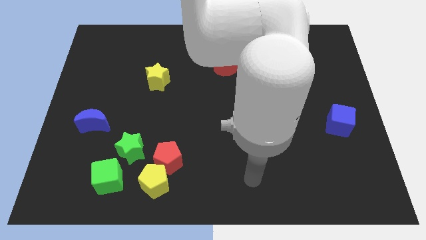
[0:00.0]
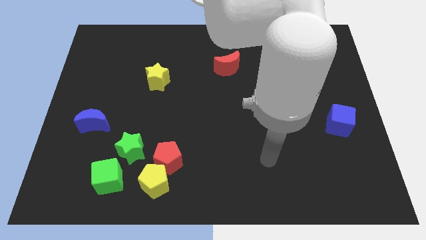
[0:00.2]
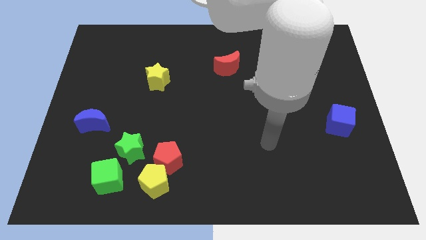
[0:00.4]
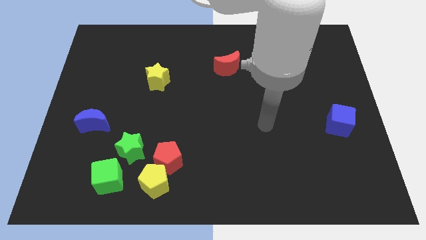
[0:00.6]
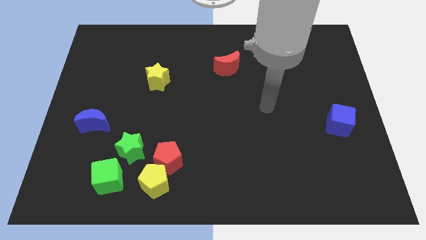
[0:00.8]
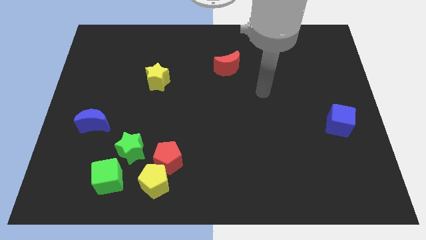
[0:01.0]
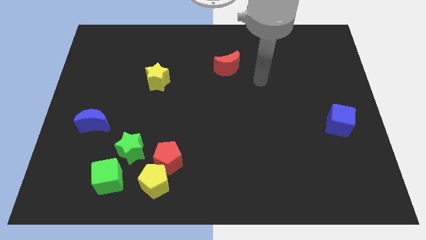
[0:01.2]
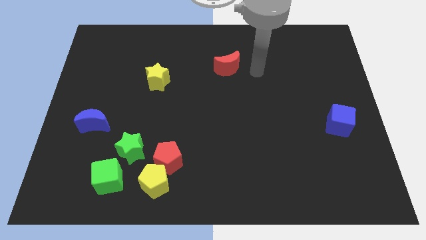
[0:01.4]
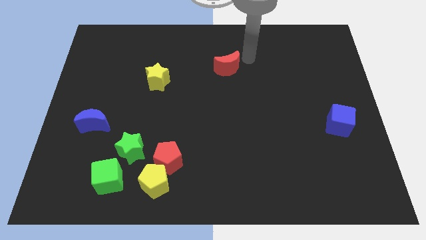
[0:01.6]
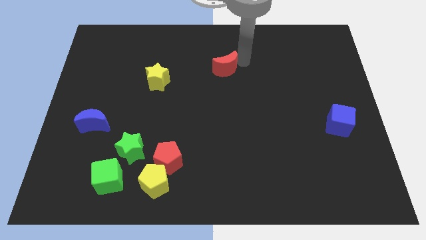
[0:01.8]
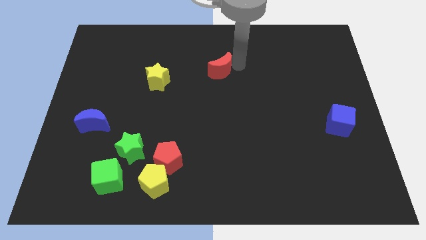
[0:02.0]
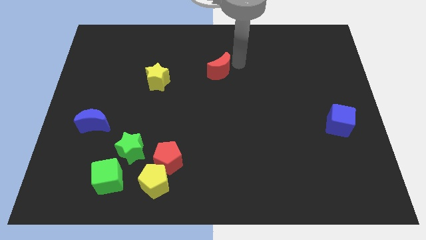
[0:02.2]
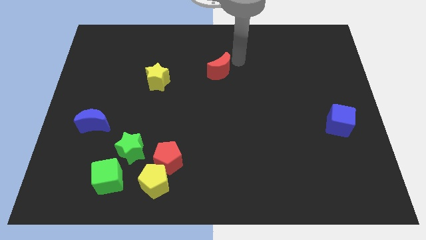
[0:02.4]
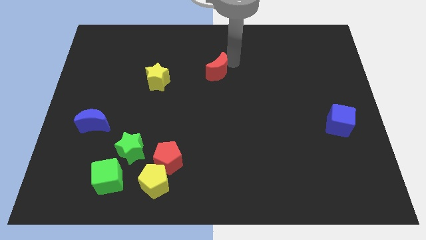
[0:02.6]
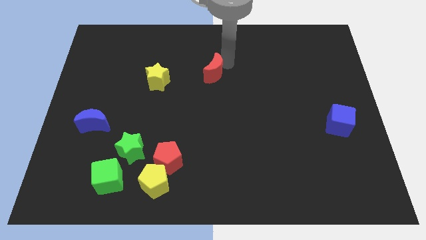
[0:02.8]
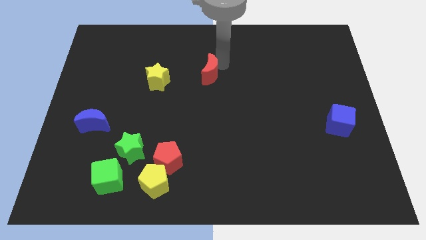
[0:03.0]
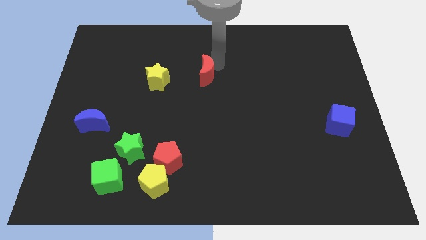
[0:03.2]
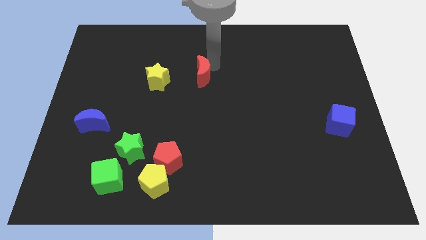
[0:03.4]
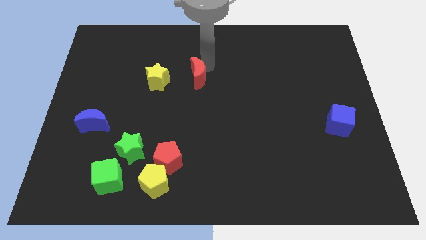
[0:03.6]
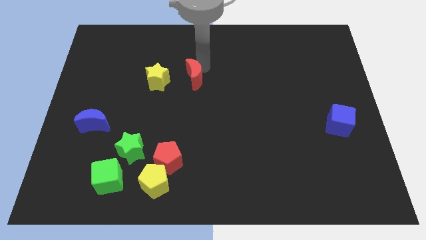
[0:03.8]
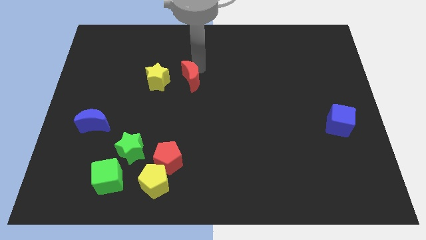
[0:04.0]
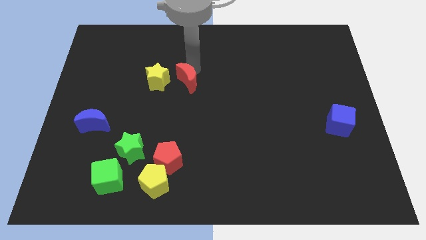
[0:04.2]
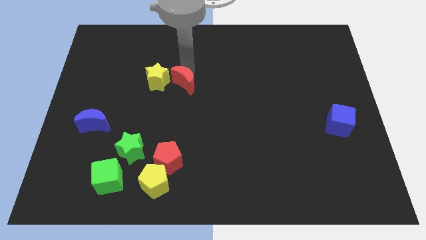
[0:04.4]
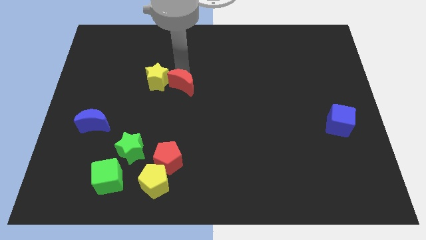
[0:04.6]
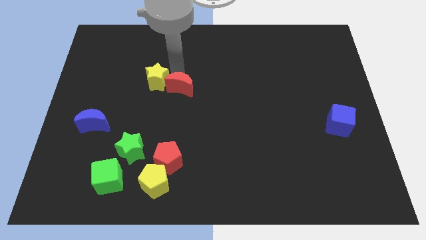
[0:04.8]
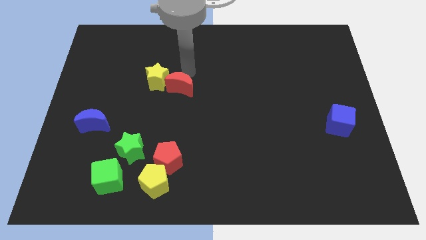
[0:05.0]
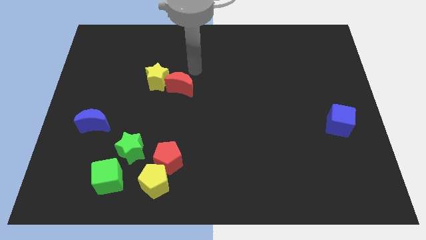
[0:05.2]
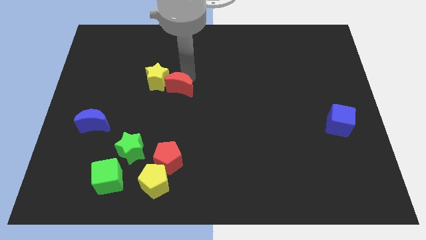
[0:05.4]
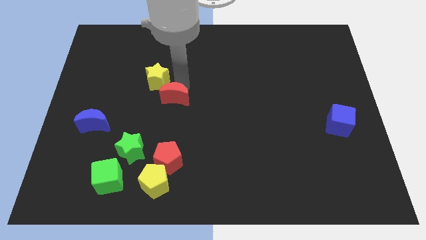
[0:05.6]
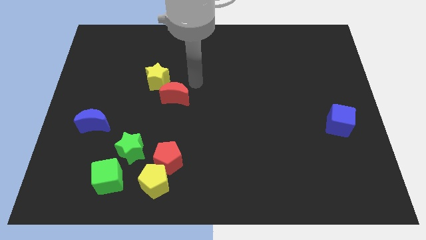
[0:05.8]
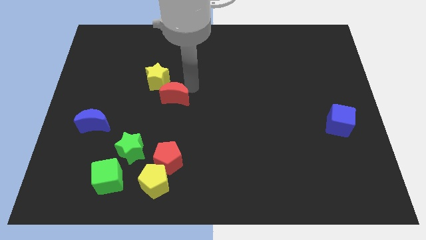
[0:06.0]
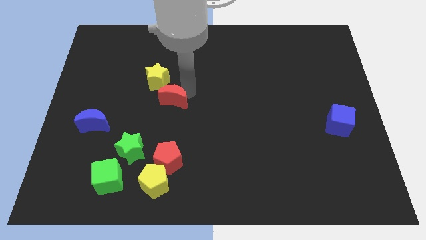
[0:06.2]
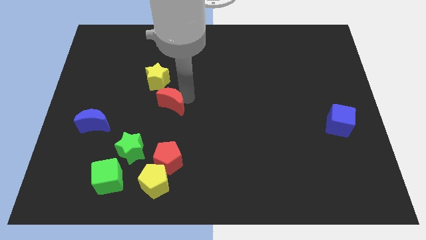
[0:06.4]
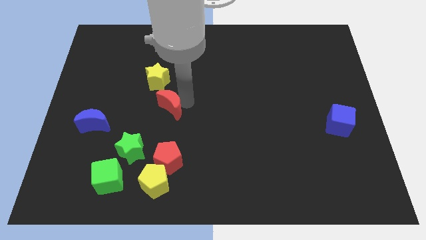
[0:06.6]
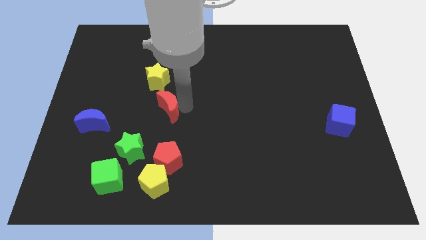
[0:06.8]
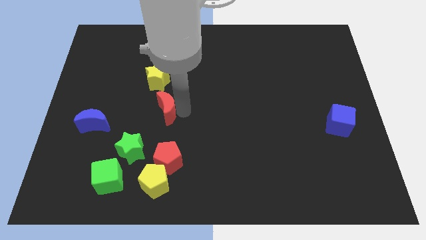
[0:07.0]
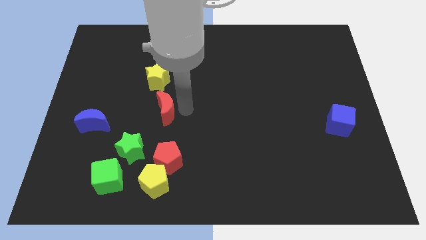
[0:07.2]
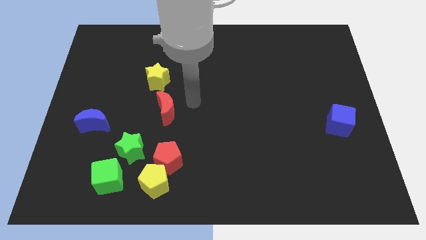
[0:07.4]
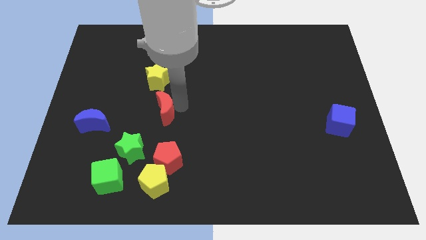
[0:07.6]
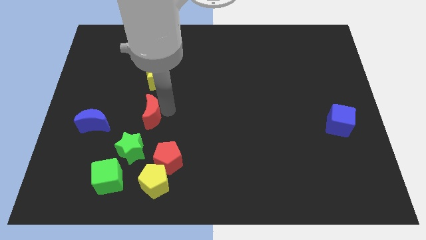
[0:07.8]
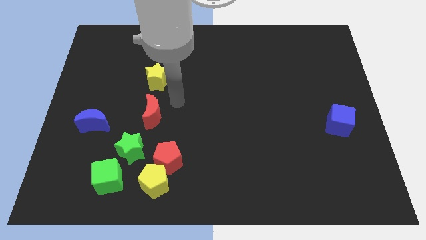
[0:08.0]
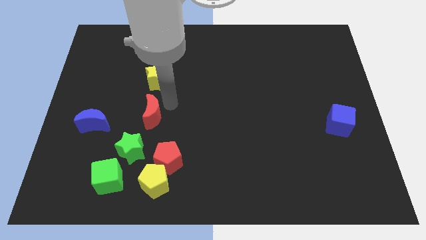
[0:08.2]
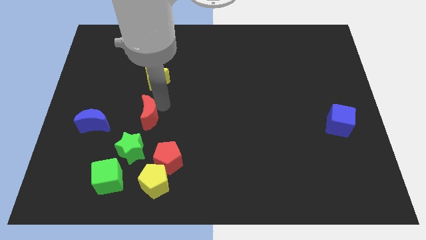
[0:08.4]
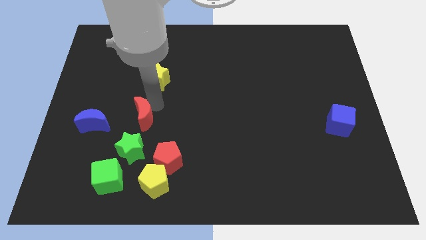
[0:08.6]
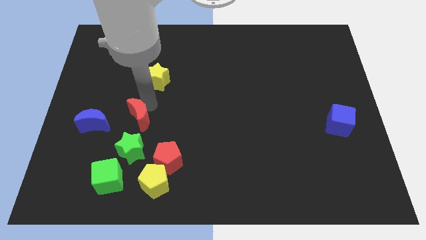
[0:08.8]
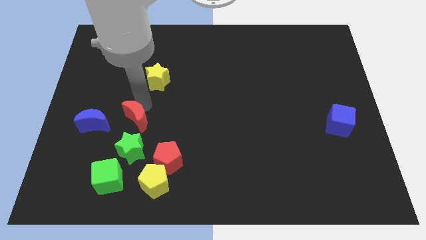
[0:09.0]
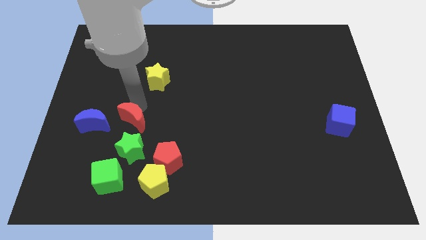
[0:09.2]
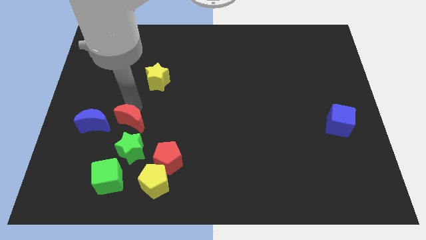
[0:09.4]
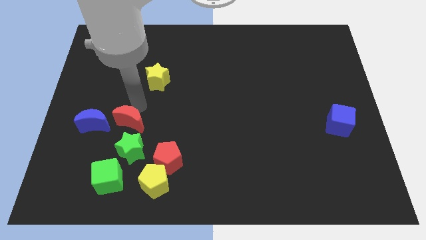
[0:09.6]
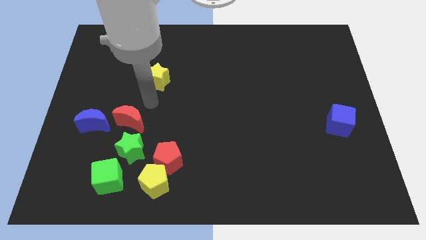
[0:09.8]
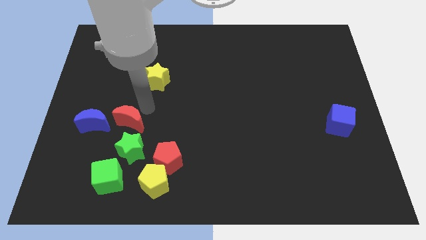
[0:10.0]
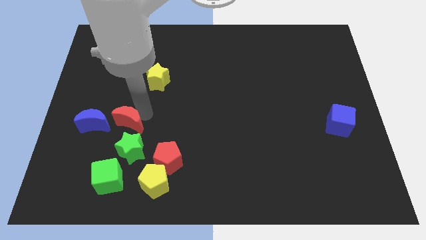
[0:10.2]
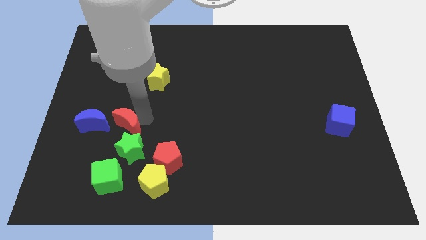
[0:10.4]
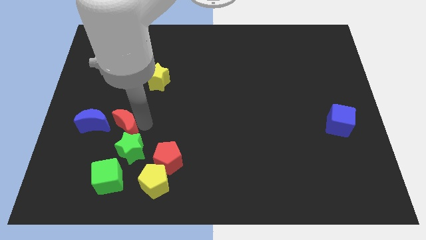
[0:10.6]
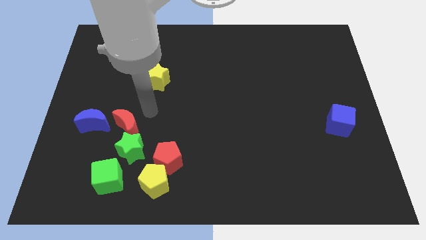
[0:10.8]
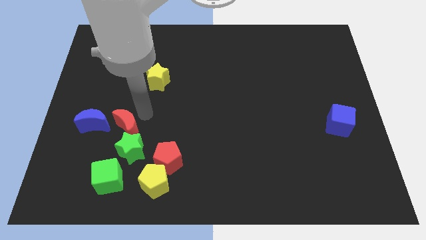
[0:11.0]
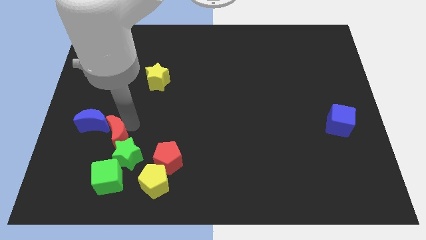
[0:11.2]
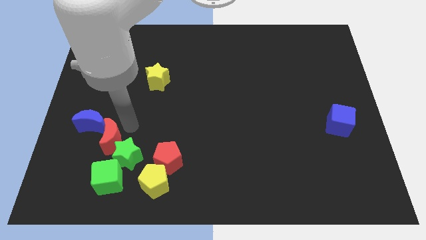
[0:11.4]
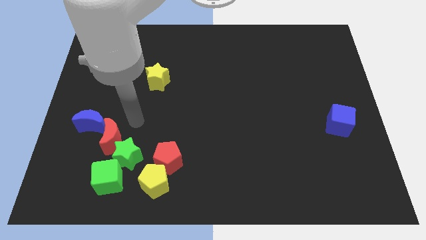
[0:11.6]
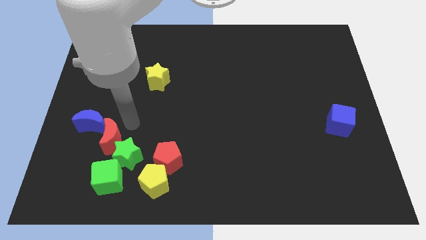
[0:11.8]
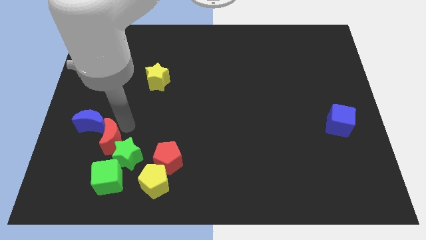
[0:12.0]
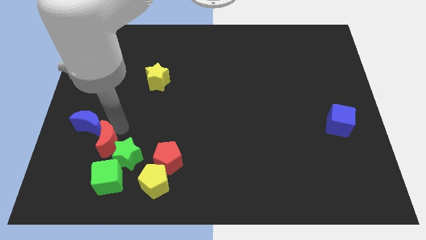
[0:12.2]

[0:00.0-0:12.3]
put the red moon below the blue moon

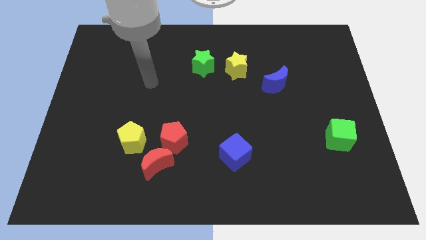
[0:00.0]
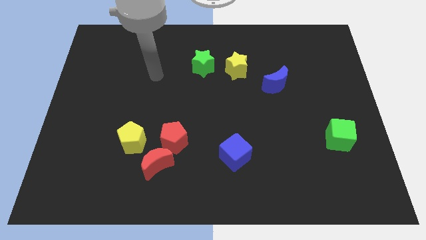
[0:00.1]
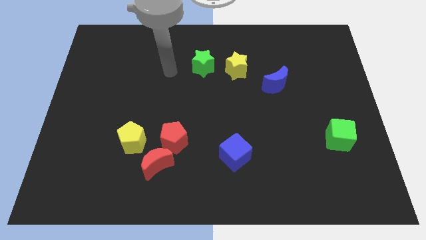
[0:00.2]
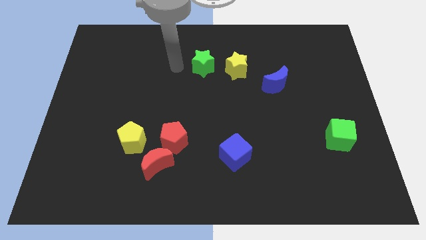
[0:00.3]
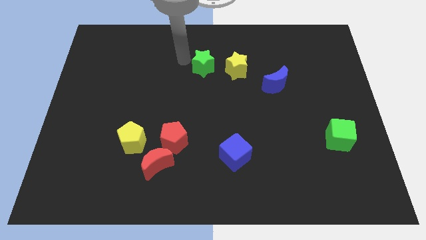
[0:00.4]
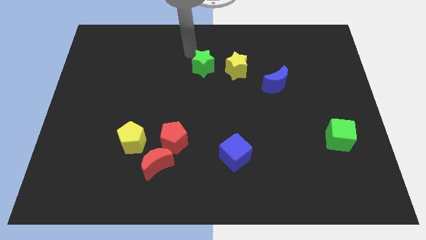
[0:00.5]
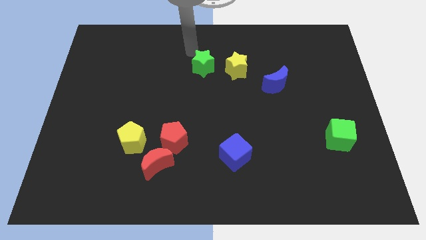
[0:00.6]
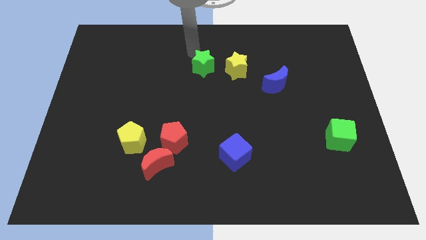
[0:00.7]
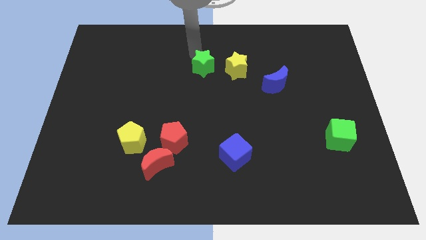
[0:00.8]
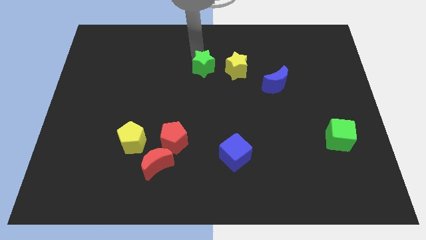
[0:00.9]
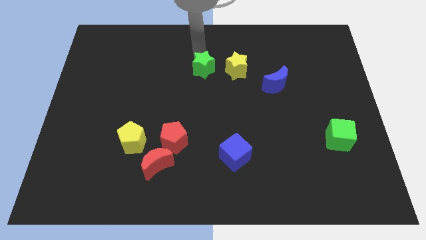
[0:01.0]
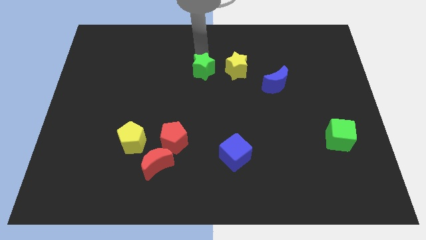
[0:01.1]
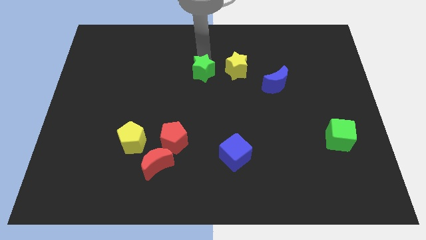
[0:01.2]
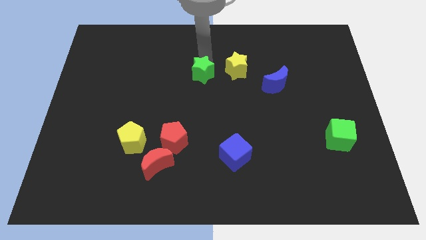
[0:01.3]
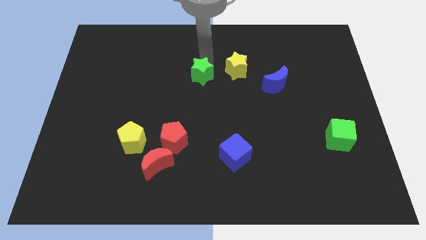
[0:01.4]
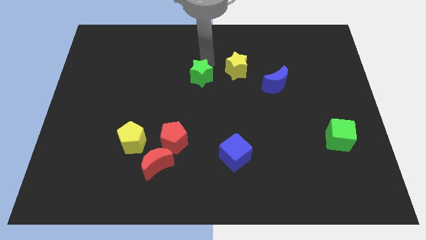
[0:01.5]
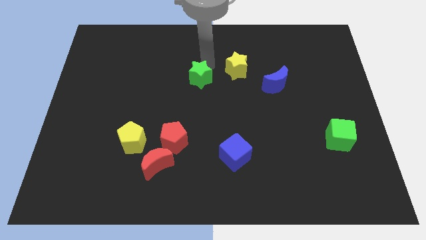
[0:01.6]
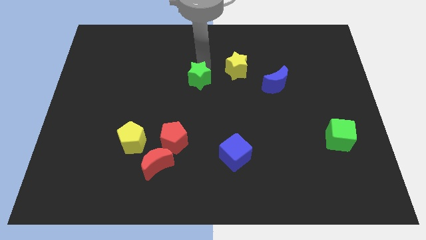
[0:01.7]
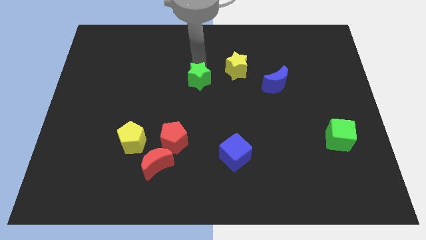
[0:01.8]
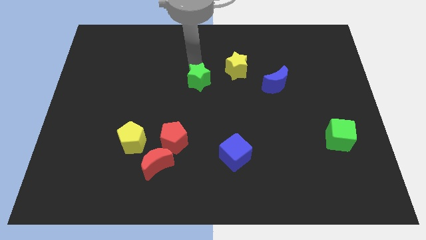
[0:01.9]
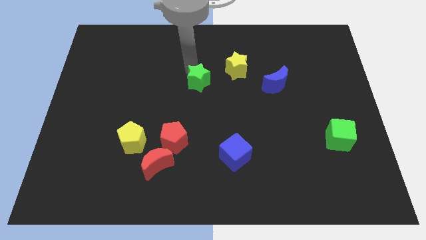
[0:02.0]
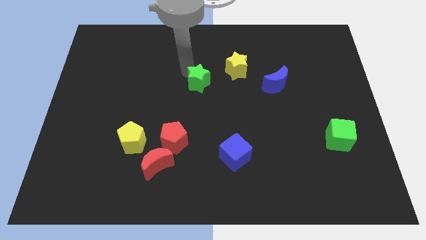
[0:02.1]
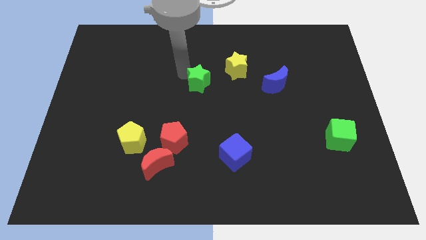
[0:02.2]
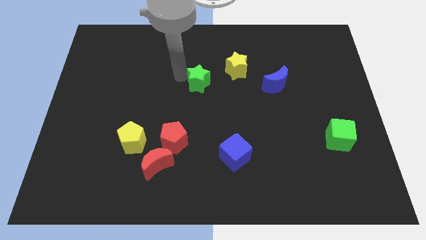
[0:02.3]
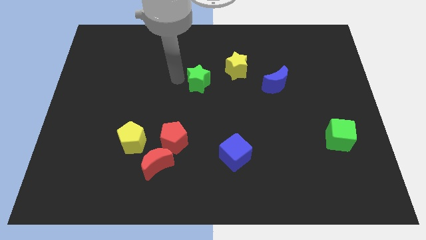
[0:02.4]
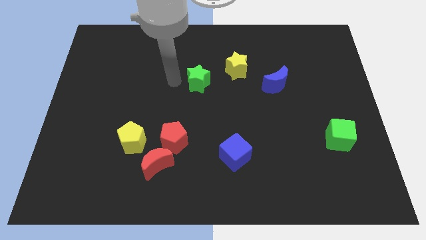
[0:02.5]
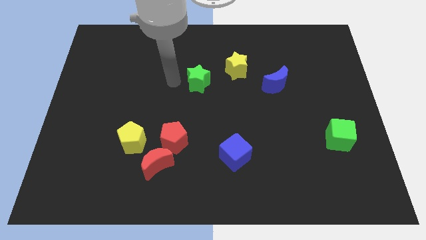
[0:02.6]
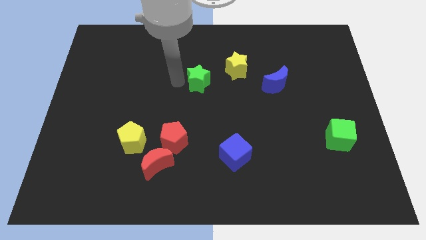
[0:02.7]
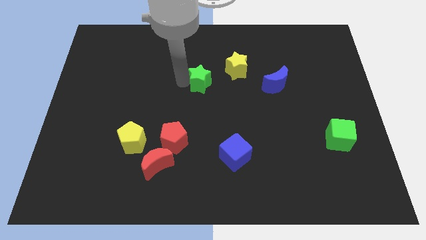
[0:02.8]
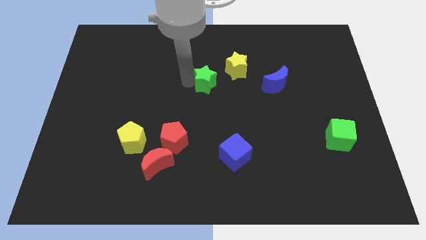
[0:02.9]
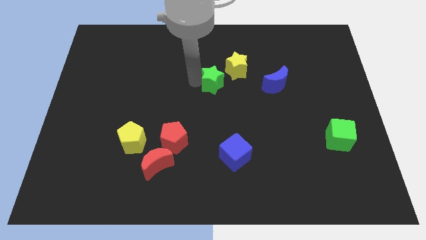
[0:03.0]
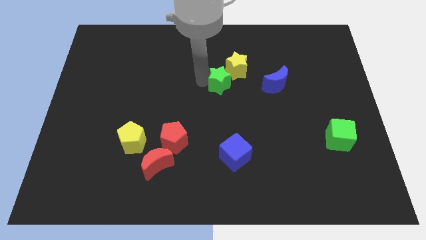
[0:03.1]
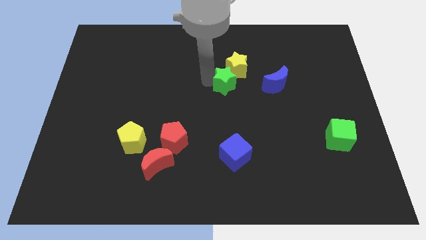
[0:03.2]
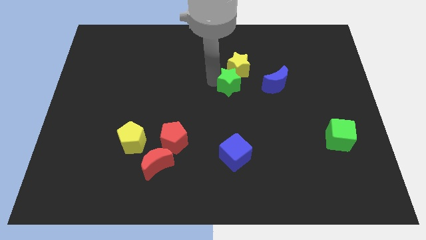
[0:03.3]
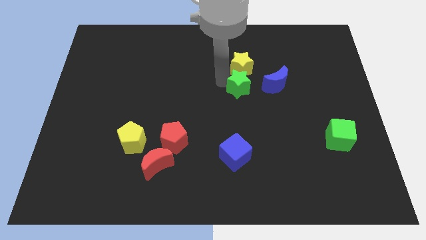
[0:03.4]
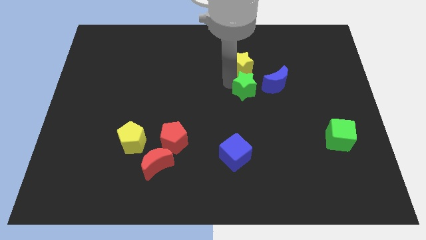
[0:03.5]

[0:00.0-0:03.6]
move the green star to the bottom left of the blue moon
